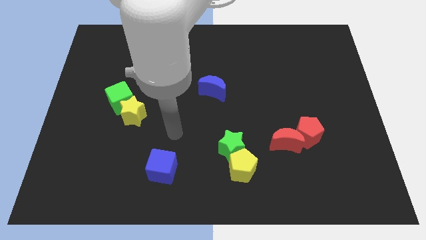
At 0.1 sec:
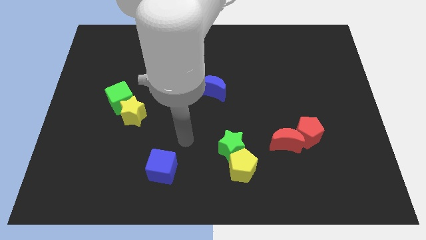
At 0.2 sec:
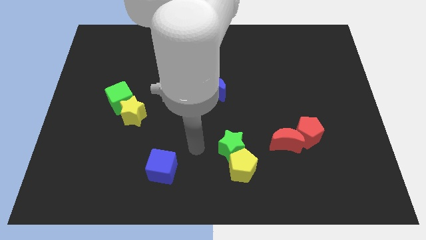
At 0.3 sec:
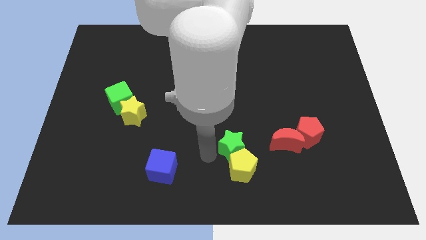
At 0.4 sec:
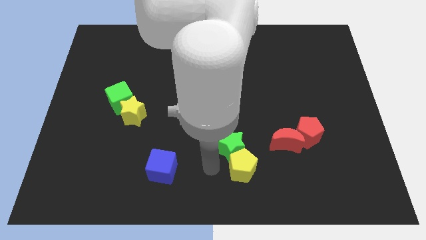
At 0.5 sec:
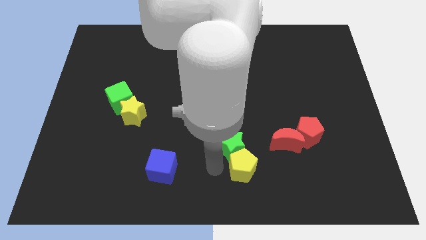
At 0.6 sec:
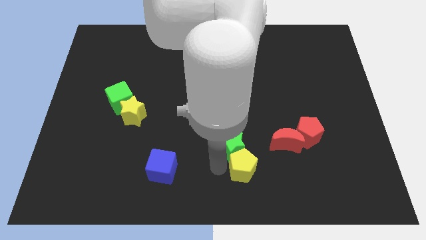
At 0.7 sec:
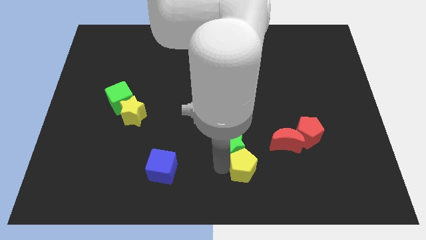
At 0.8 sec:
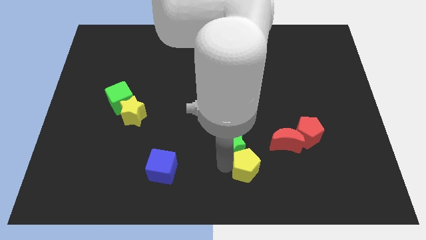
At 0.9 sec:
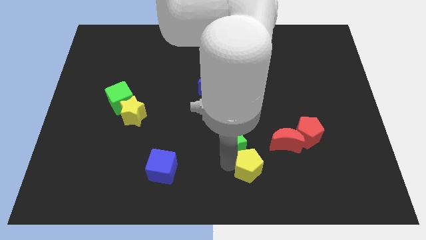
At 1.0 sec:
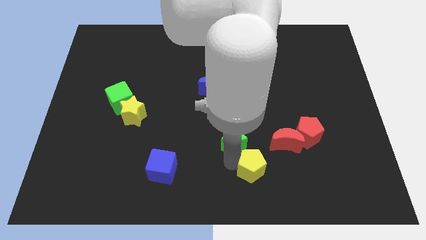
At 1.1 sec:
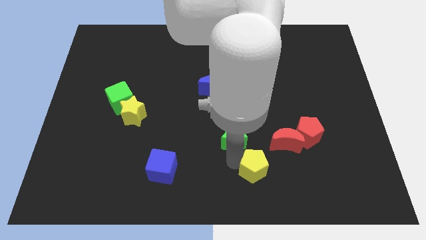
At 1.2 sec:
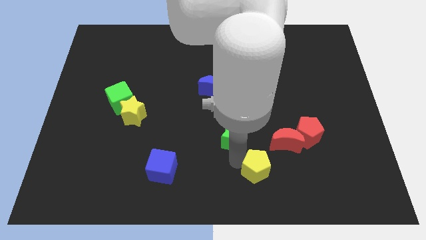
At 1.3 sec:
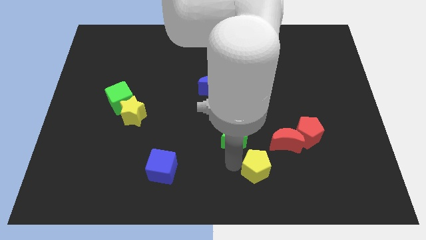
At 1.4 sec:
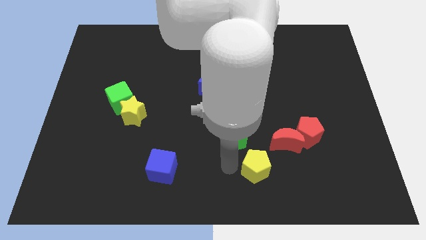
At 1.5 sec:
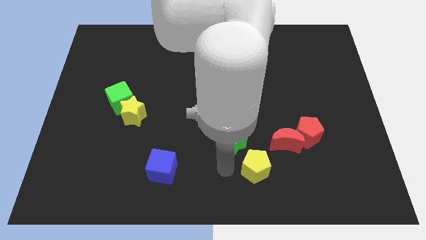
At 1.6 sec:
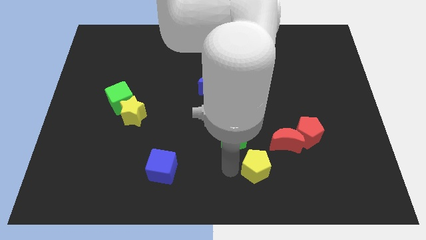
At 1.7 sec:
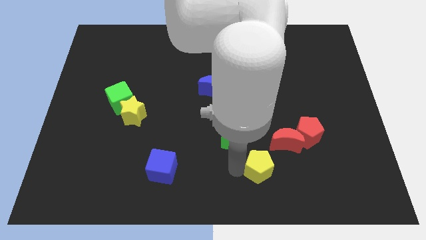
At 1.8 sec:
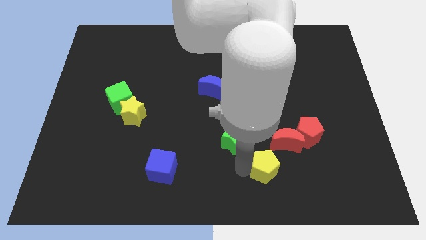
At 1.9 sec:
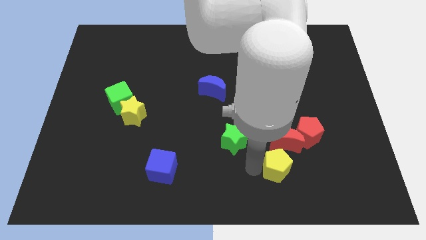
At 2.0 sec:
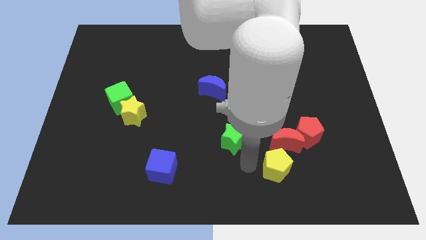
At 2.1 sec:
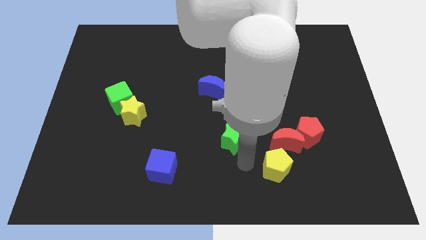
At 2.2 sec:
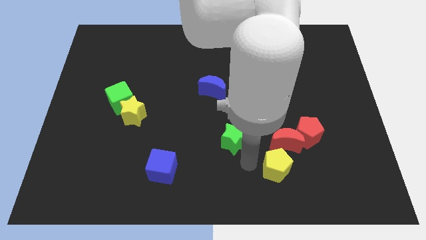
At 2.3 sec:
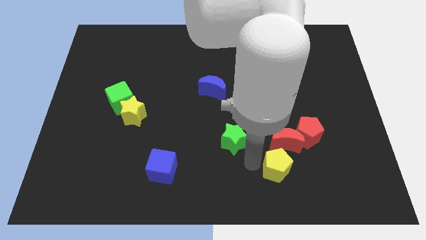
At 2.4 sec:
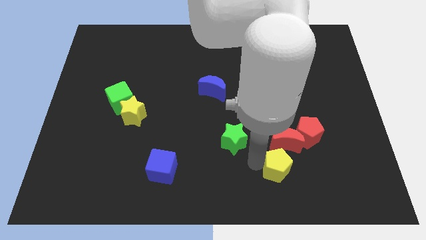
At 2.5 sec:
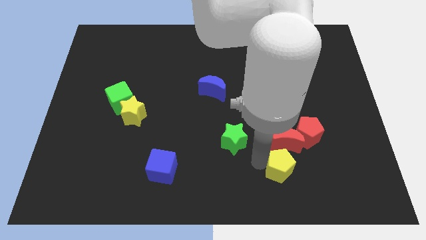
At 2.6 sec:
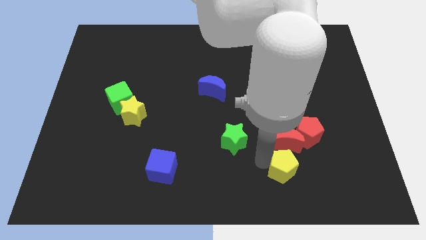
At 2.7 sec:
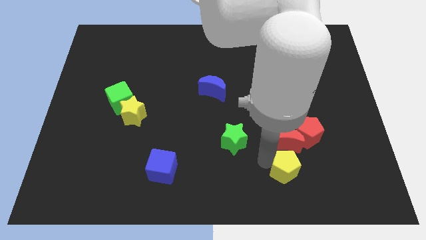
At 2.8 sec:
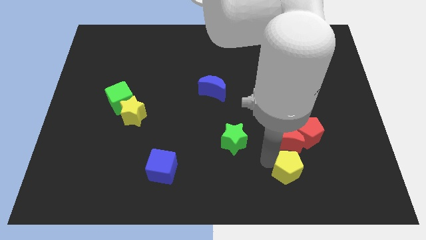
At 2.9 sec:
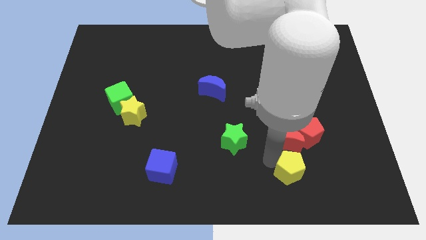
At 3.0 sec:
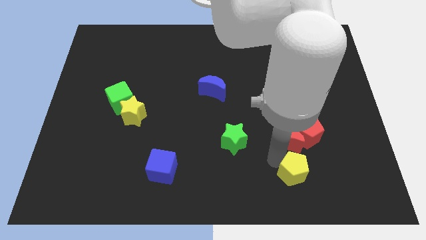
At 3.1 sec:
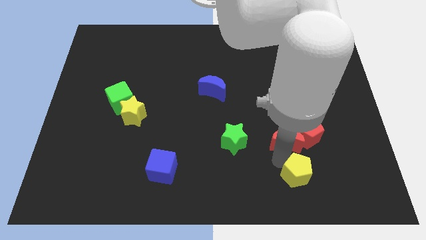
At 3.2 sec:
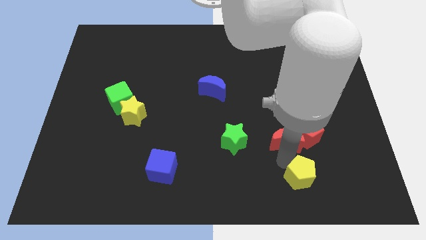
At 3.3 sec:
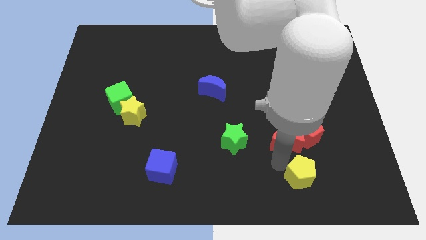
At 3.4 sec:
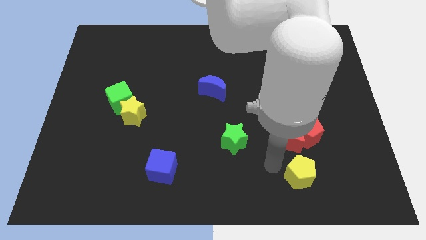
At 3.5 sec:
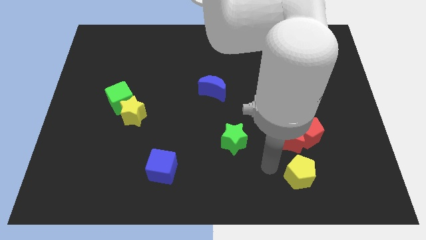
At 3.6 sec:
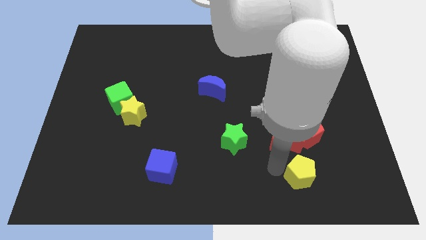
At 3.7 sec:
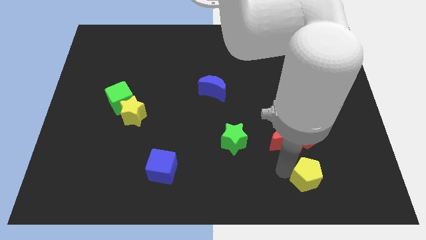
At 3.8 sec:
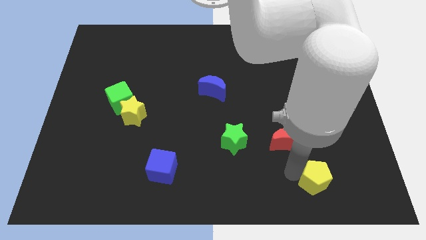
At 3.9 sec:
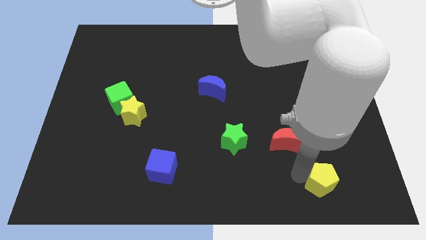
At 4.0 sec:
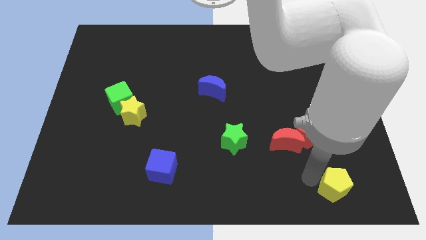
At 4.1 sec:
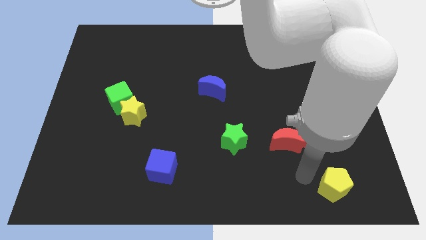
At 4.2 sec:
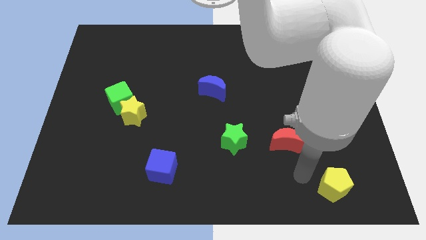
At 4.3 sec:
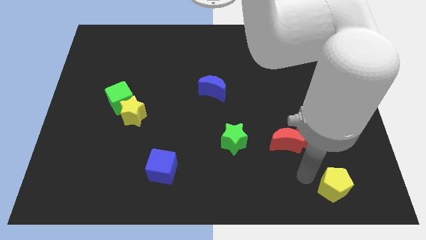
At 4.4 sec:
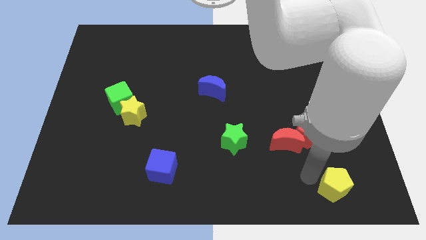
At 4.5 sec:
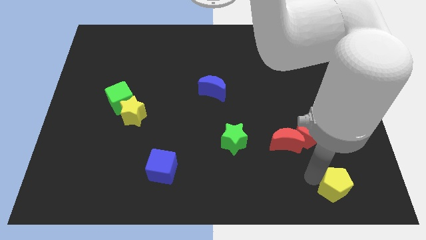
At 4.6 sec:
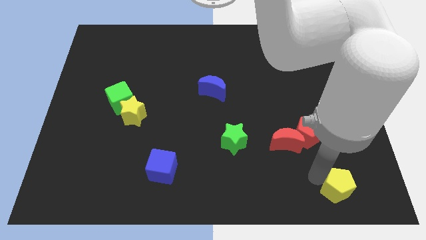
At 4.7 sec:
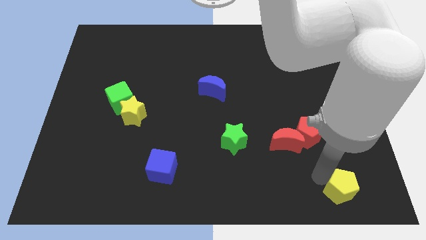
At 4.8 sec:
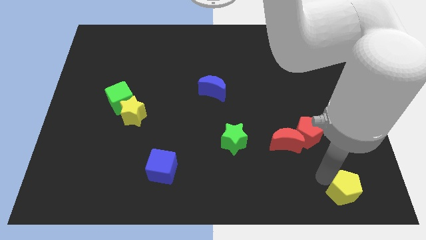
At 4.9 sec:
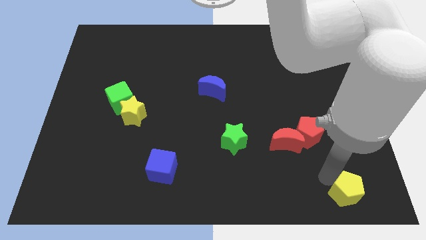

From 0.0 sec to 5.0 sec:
move the yellow pentagon to the bottom right

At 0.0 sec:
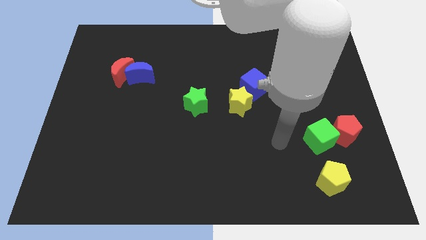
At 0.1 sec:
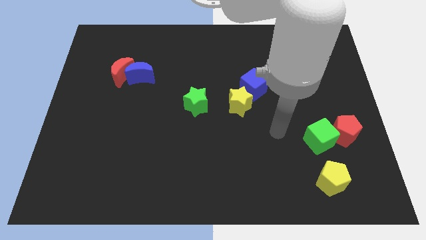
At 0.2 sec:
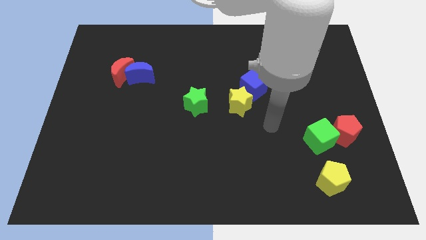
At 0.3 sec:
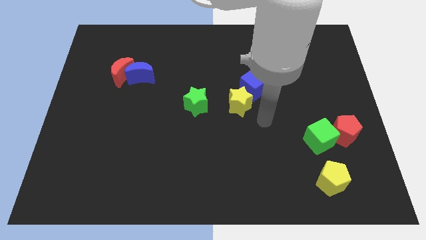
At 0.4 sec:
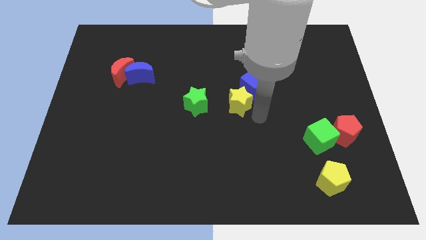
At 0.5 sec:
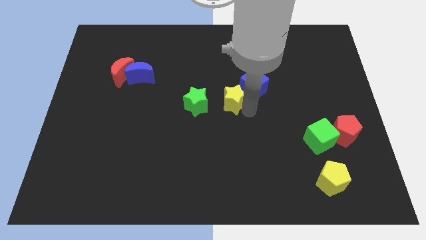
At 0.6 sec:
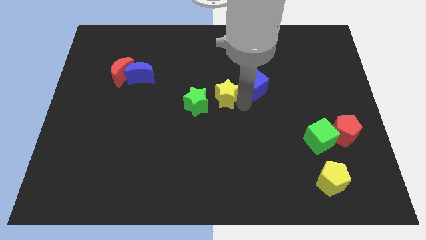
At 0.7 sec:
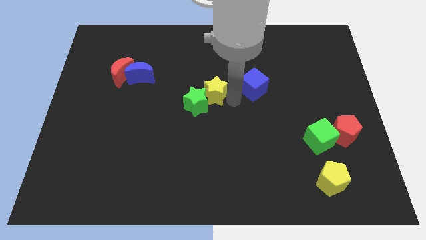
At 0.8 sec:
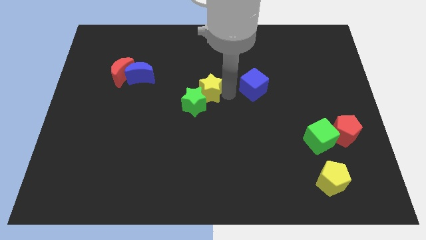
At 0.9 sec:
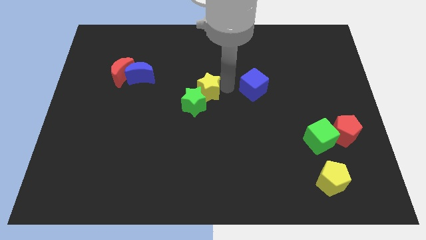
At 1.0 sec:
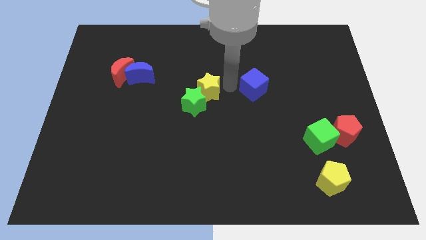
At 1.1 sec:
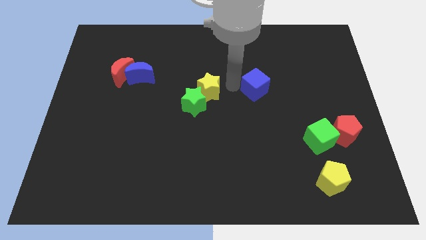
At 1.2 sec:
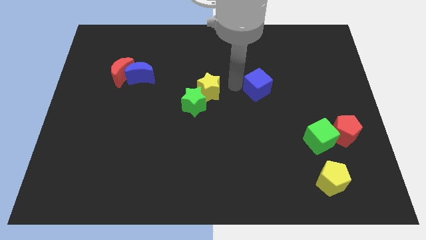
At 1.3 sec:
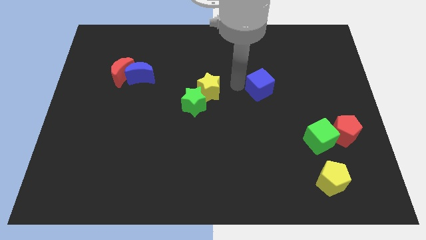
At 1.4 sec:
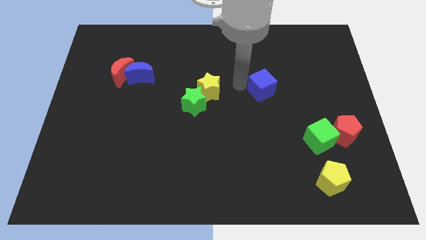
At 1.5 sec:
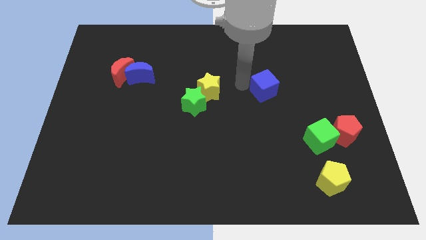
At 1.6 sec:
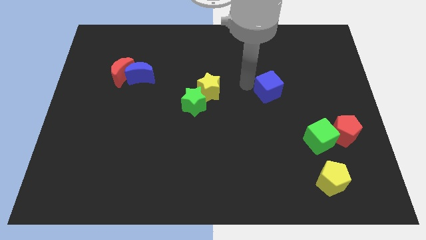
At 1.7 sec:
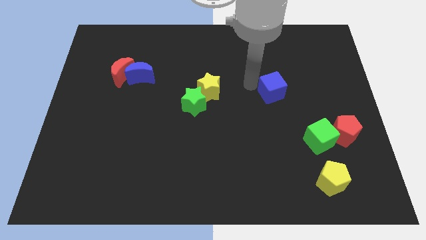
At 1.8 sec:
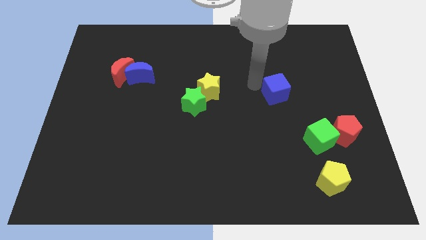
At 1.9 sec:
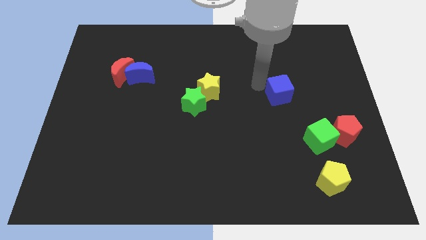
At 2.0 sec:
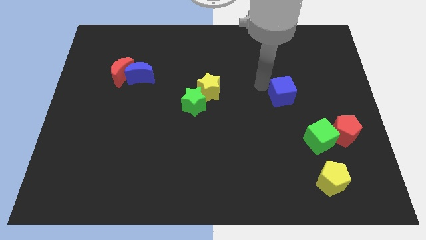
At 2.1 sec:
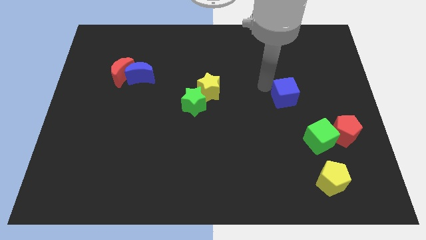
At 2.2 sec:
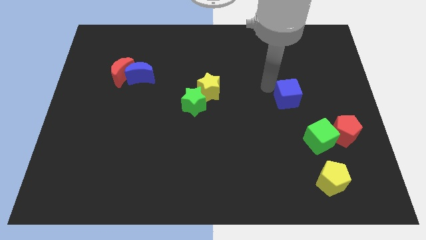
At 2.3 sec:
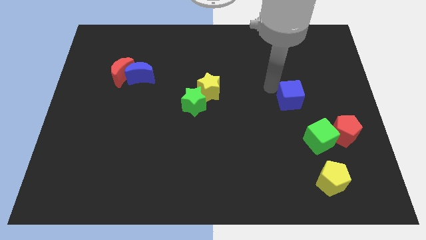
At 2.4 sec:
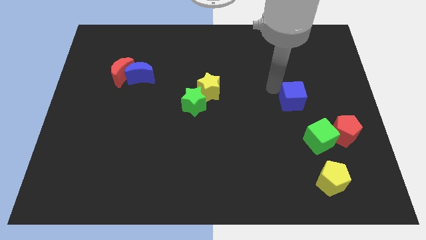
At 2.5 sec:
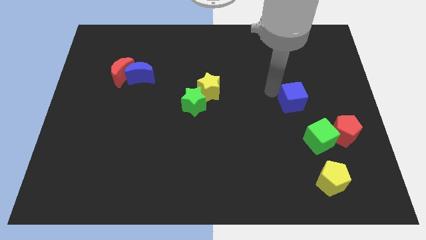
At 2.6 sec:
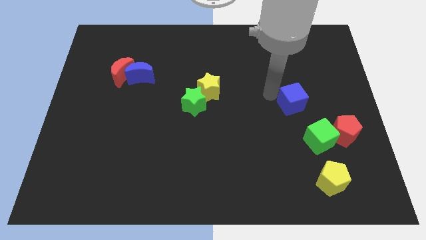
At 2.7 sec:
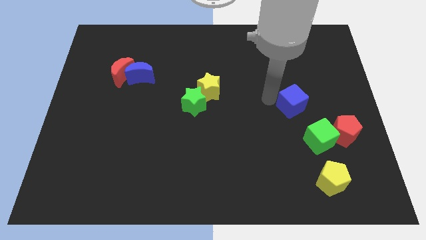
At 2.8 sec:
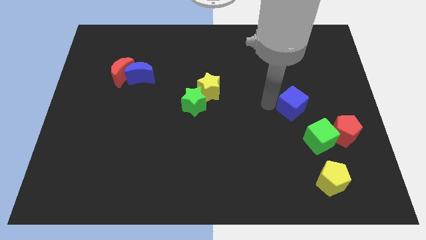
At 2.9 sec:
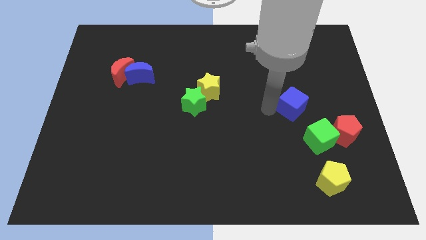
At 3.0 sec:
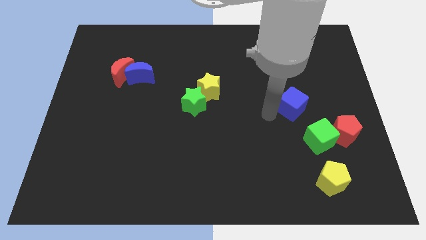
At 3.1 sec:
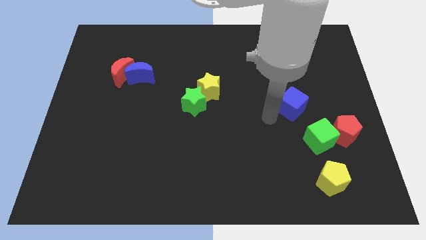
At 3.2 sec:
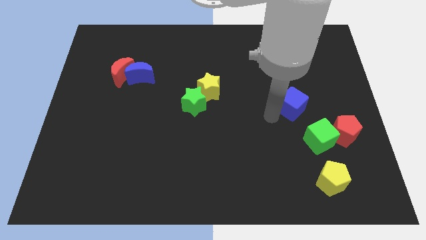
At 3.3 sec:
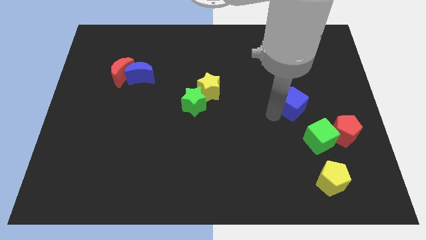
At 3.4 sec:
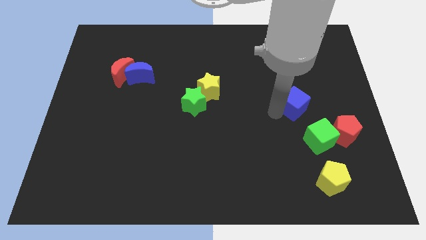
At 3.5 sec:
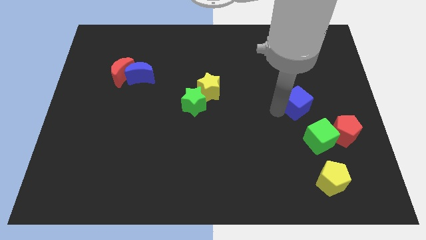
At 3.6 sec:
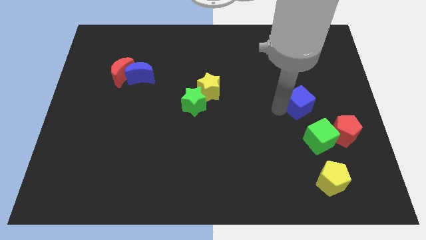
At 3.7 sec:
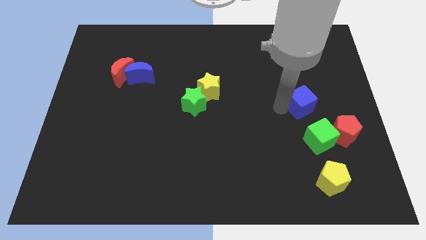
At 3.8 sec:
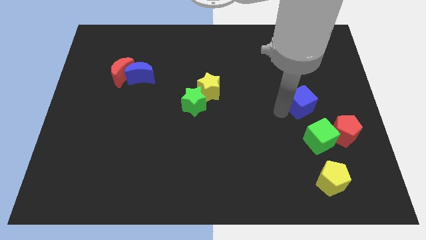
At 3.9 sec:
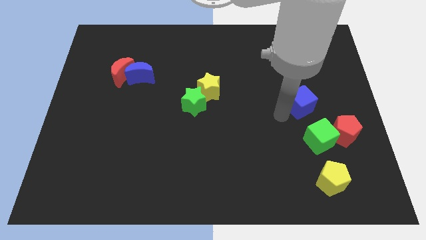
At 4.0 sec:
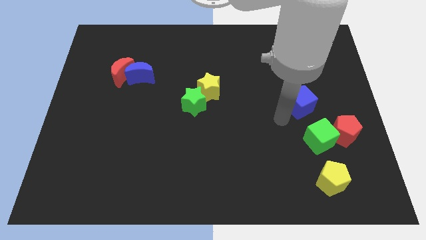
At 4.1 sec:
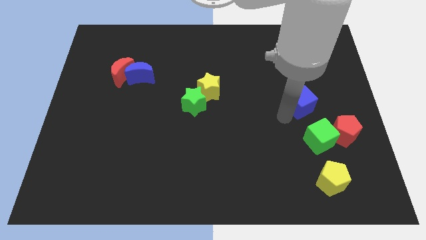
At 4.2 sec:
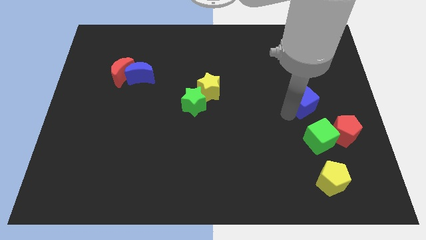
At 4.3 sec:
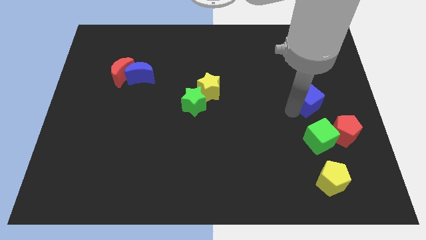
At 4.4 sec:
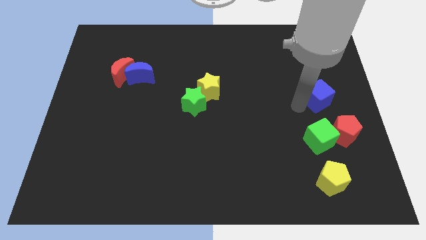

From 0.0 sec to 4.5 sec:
push the blue cube to the right side
